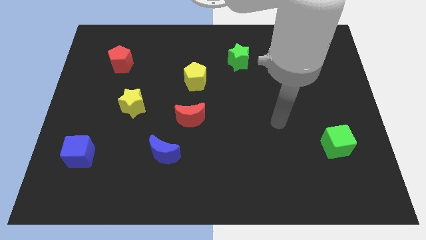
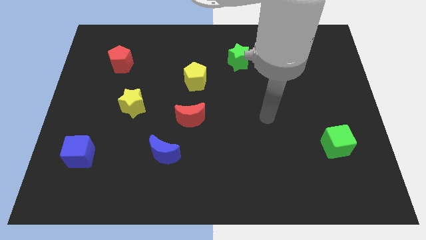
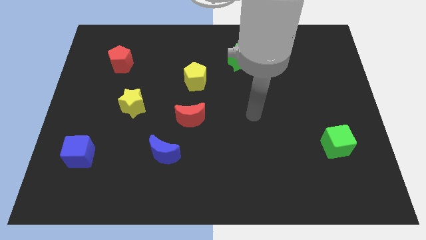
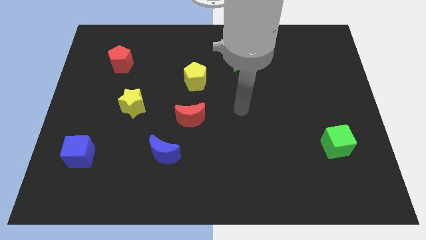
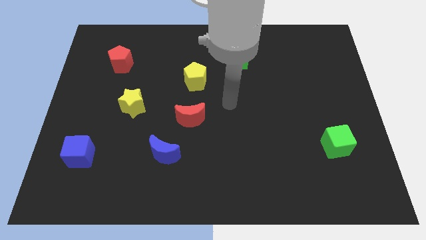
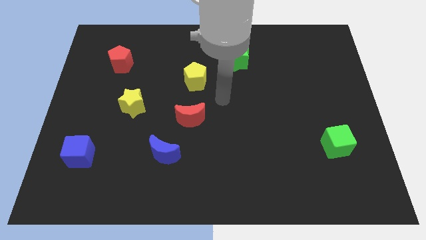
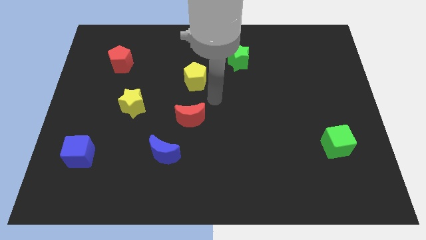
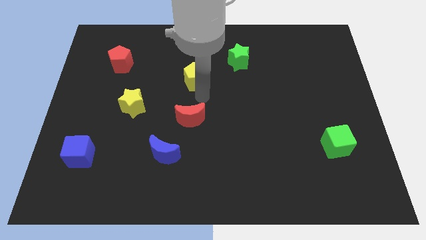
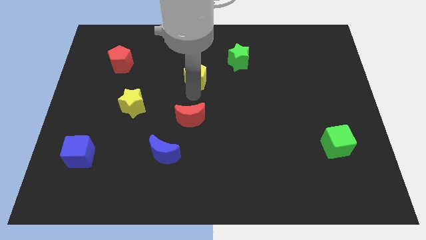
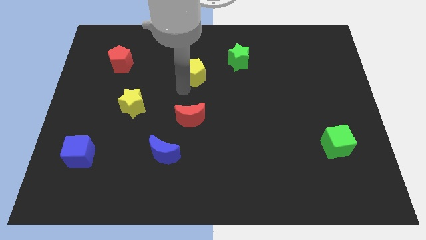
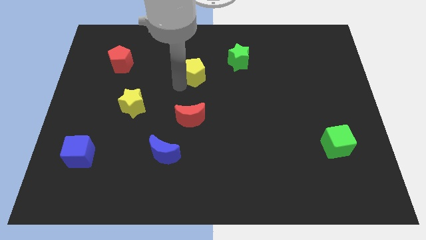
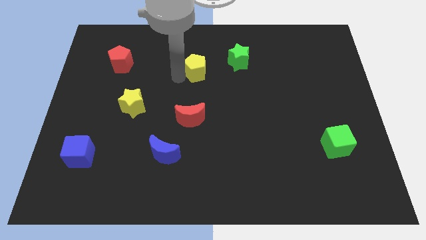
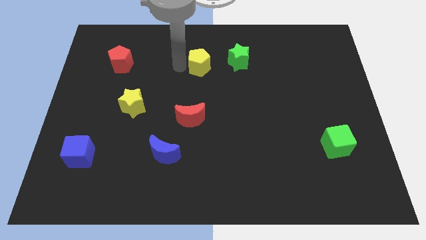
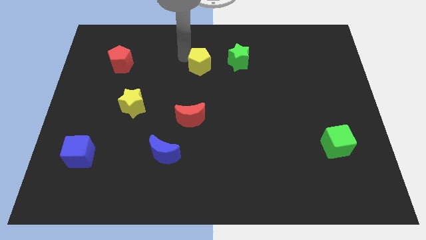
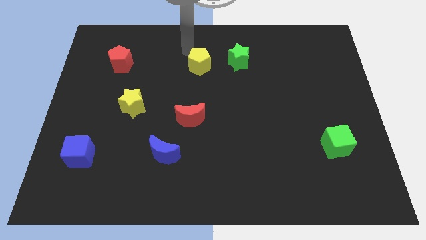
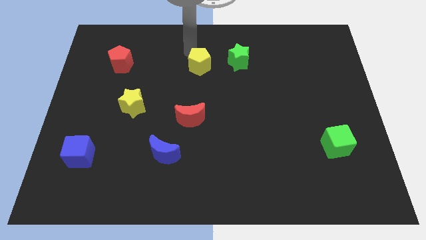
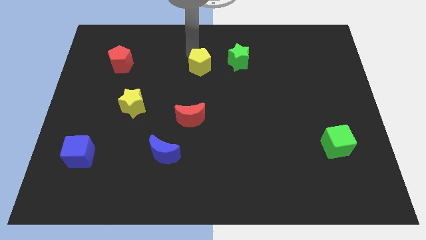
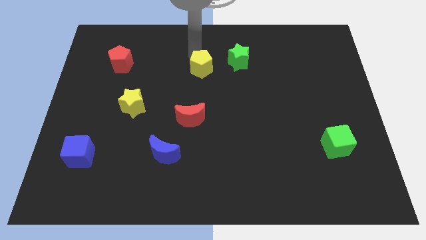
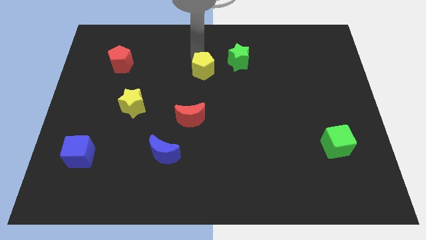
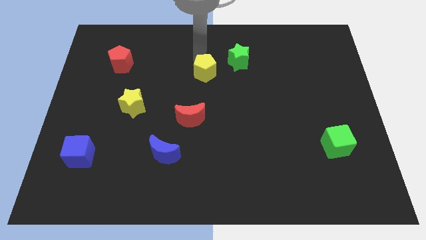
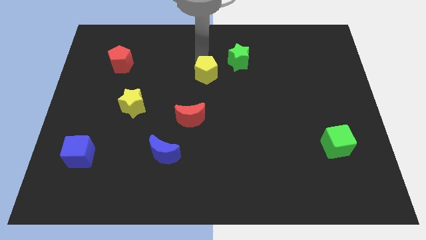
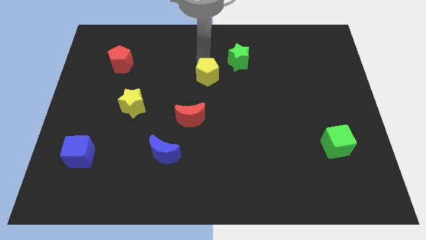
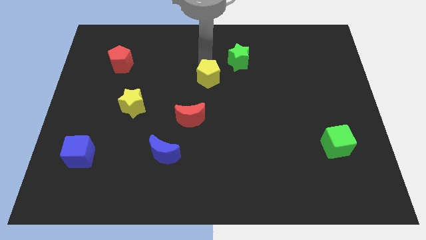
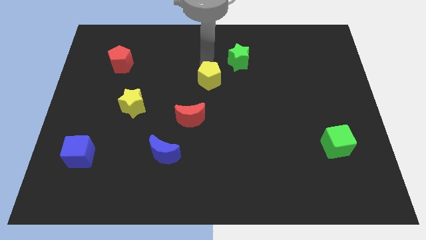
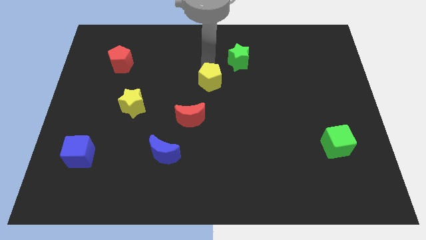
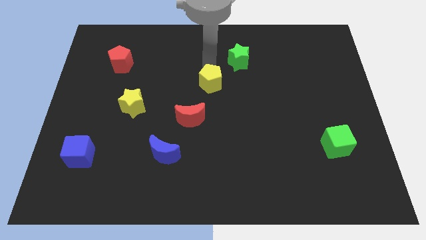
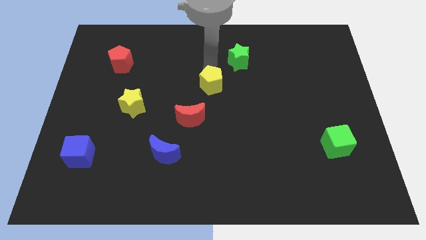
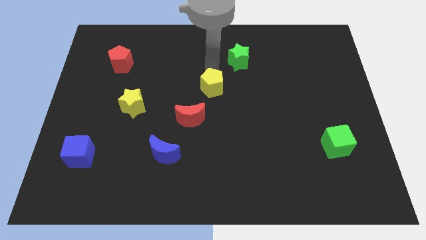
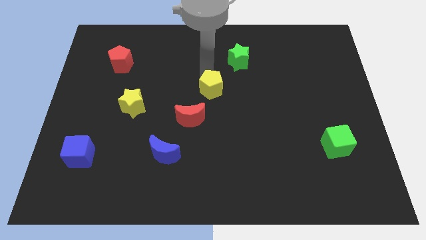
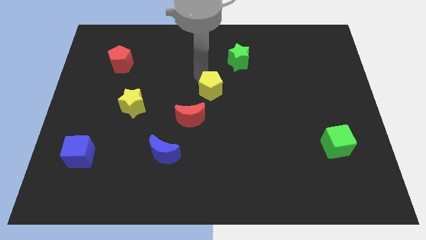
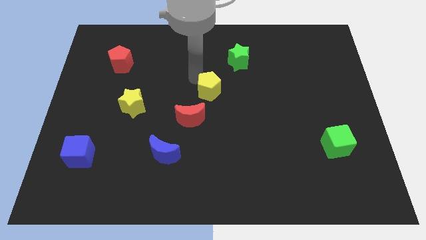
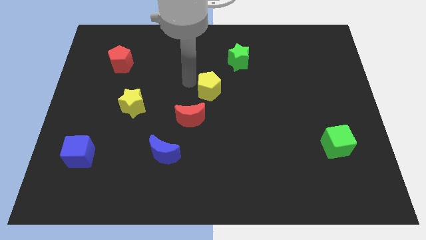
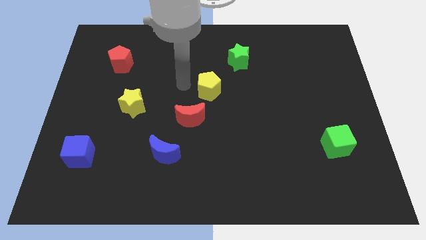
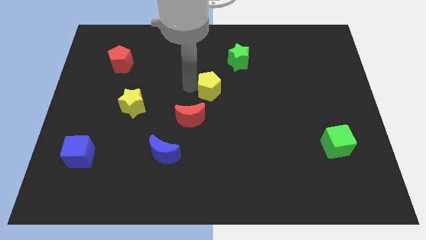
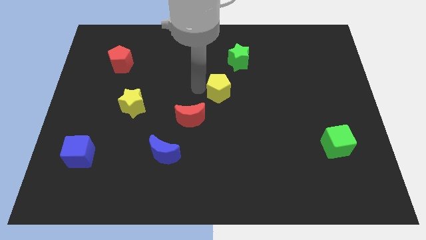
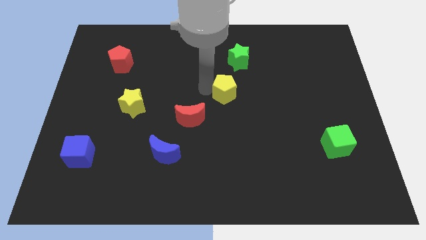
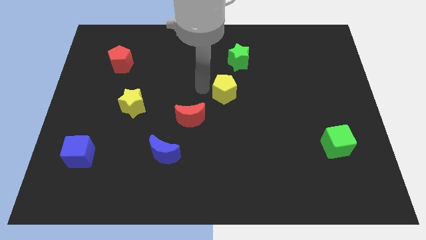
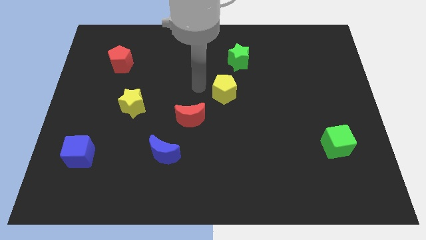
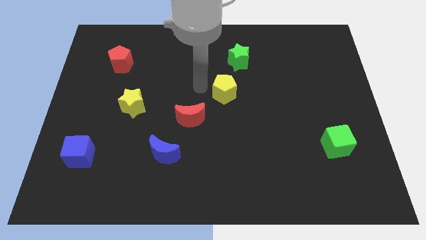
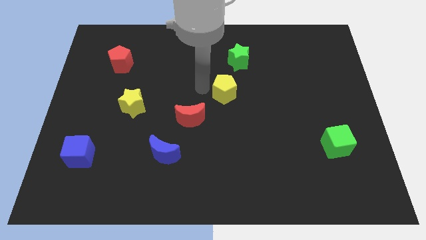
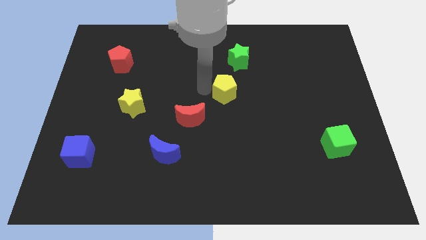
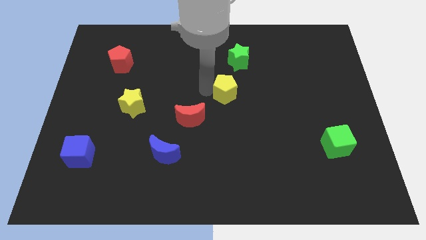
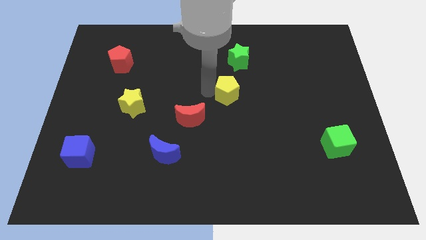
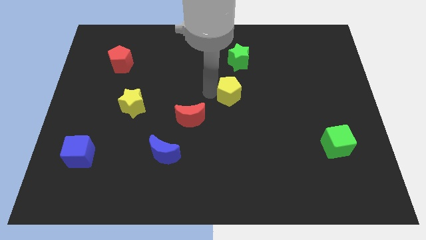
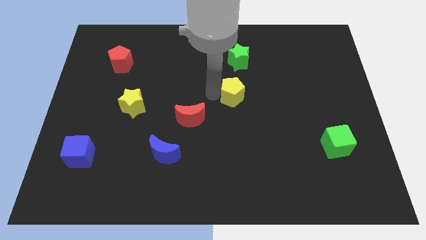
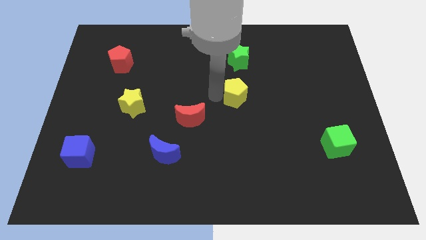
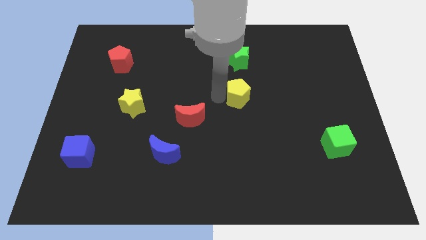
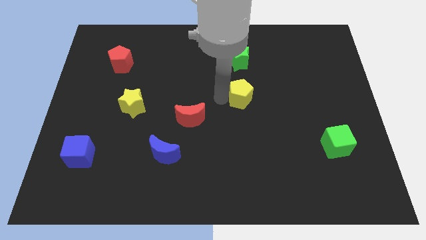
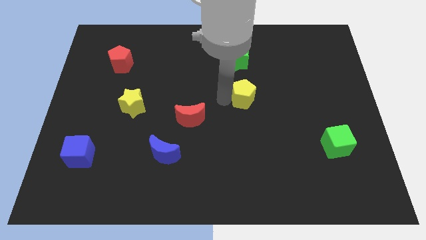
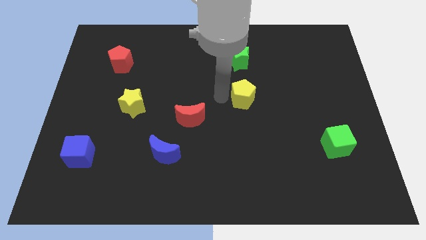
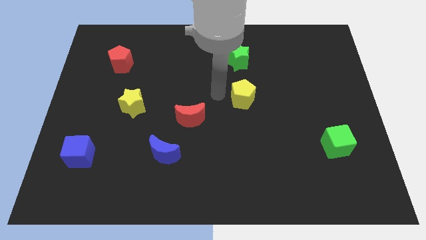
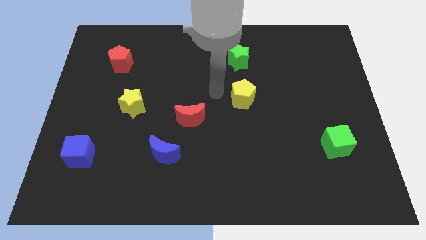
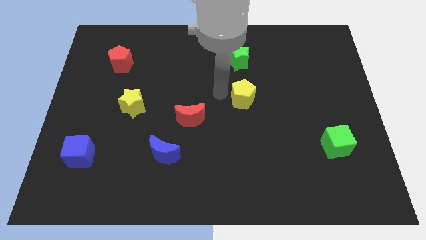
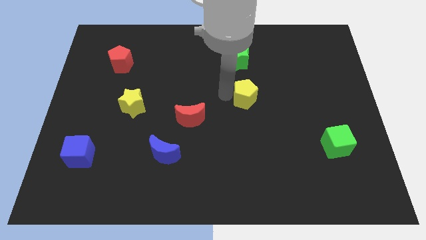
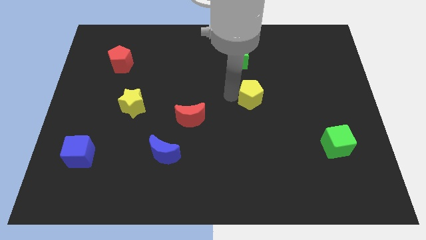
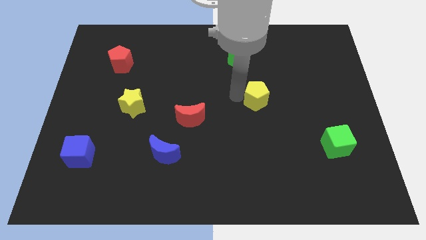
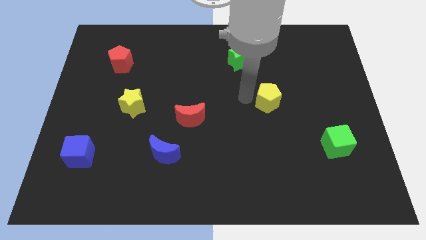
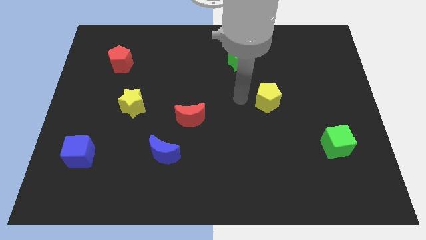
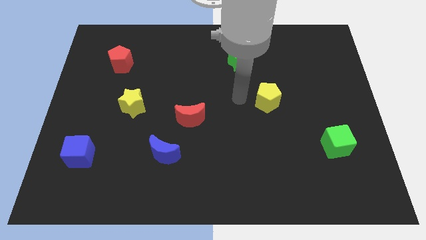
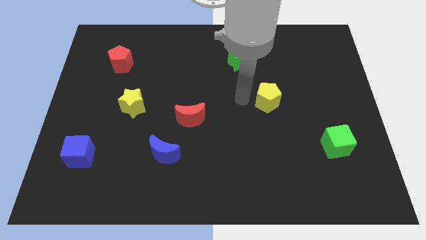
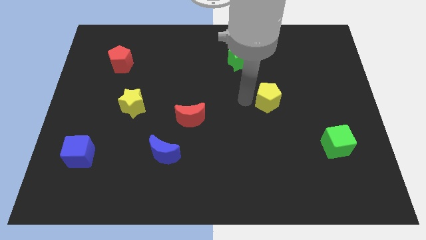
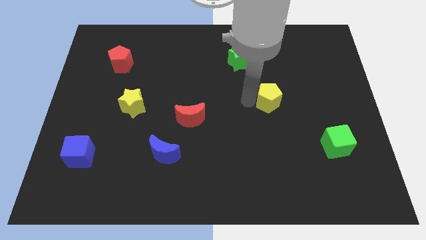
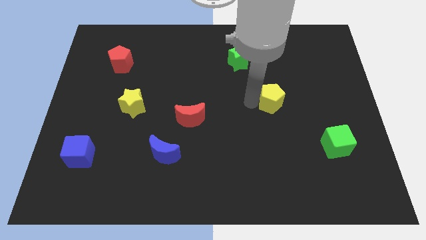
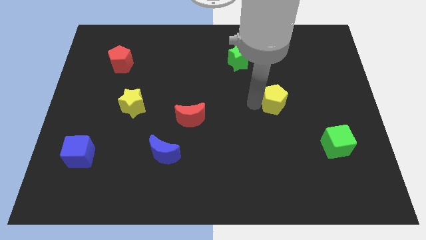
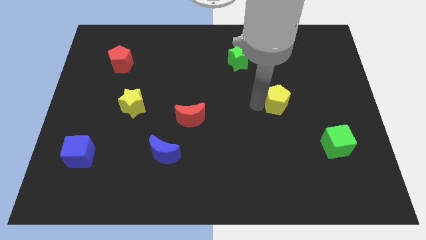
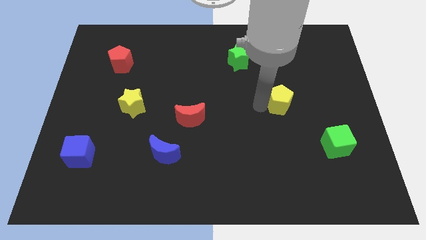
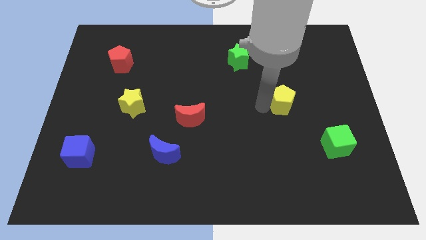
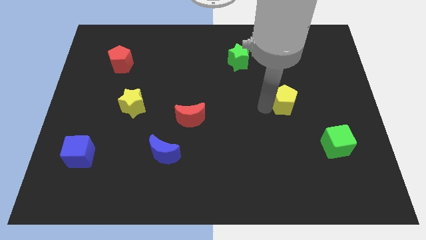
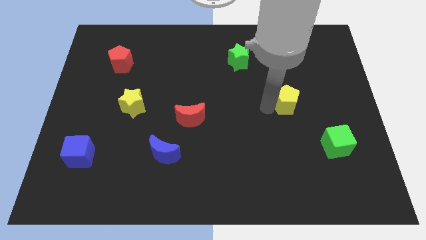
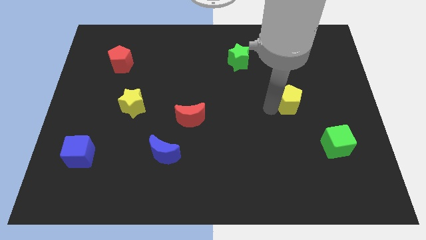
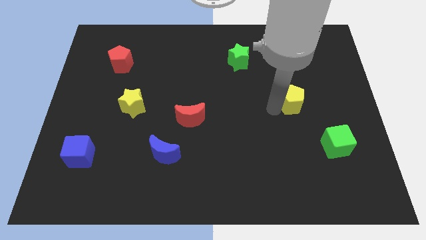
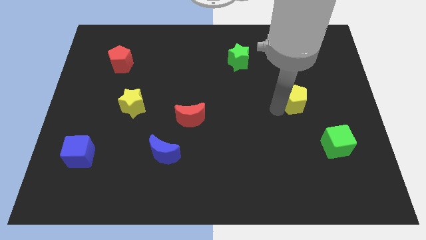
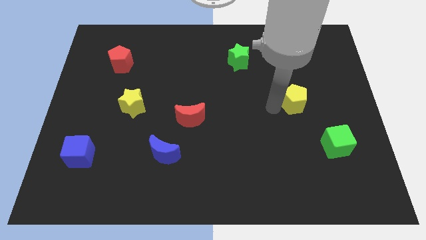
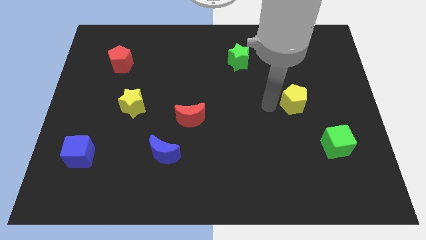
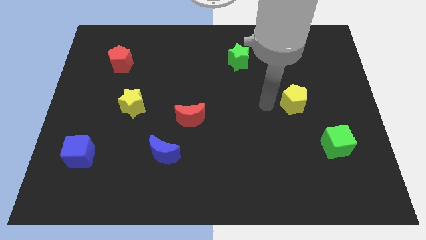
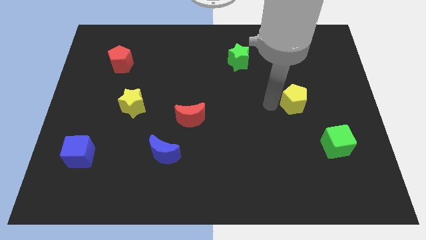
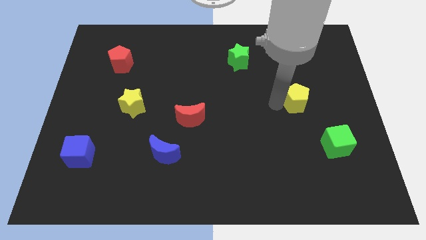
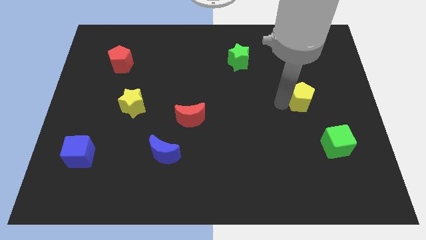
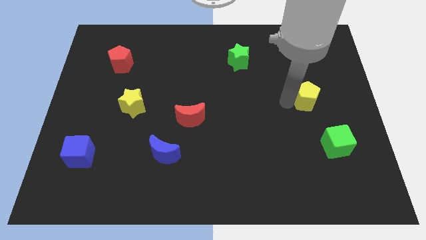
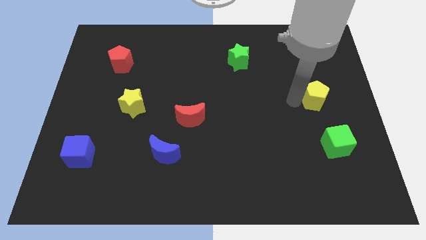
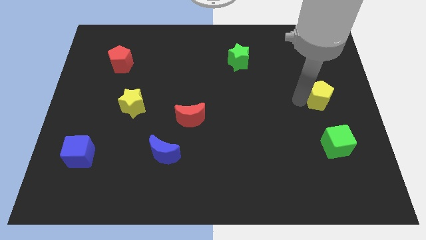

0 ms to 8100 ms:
push the yellow pentagon to the right side
